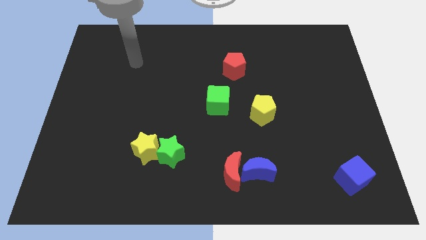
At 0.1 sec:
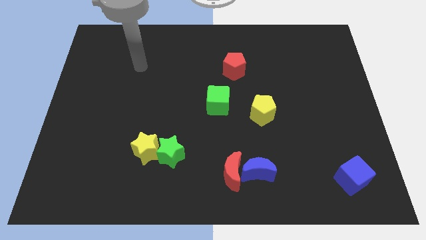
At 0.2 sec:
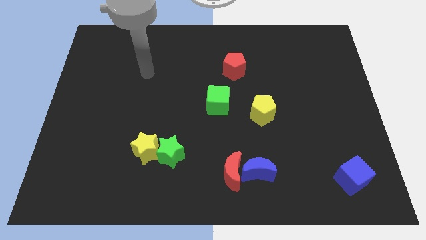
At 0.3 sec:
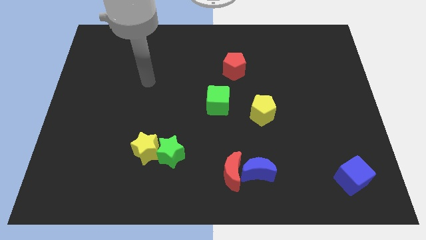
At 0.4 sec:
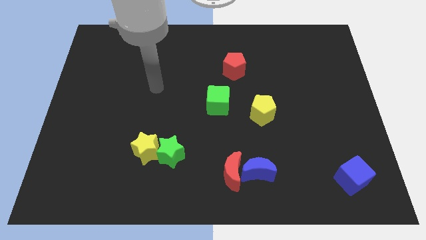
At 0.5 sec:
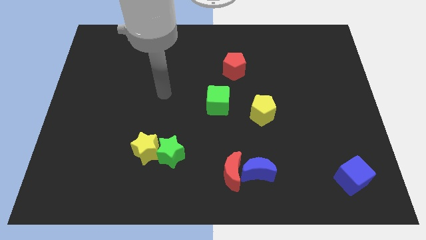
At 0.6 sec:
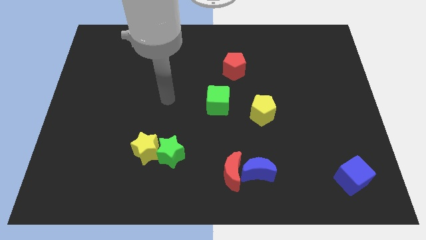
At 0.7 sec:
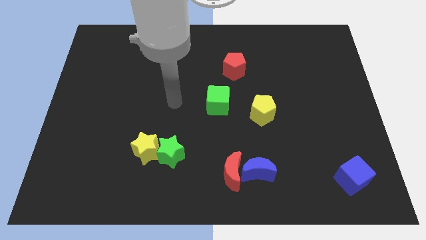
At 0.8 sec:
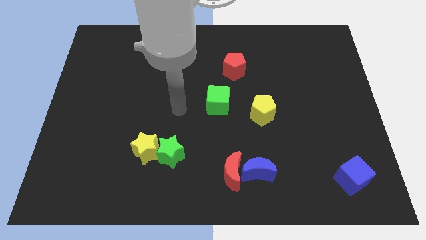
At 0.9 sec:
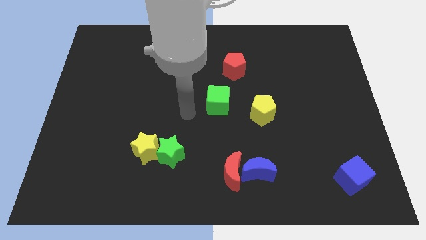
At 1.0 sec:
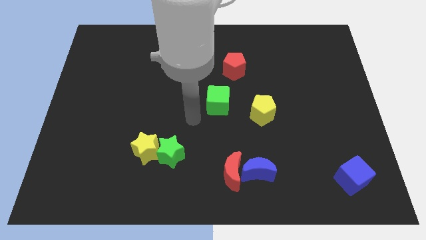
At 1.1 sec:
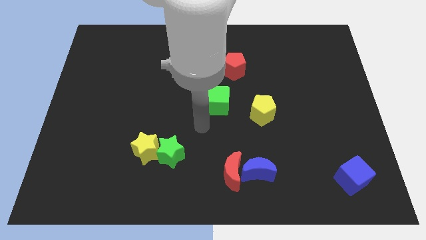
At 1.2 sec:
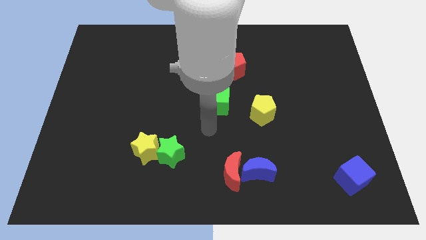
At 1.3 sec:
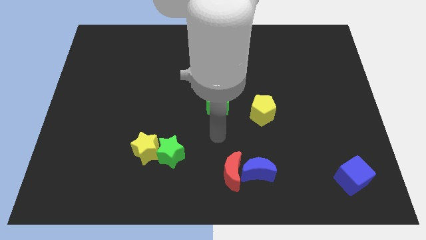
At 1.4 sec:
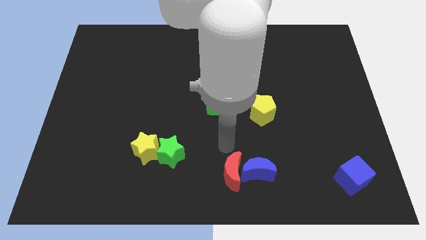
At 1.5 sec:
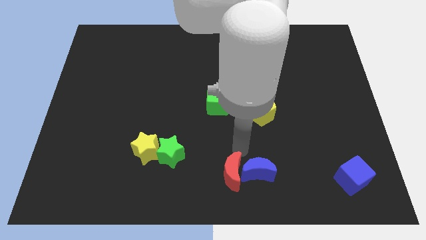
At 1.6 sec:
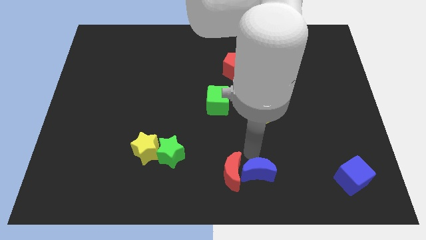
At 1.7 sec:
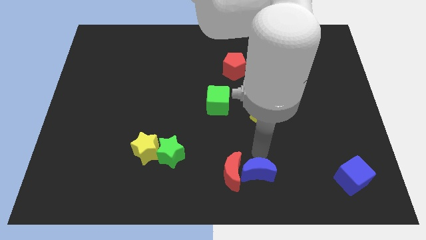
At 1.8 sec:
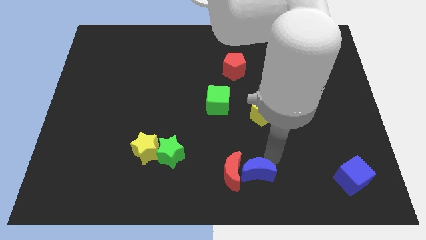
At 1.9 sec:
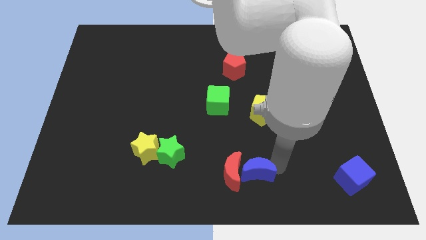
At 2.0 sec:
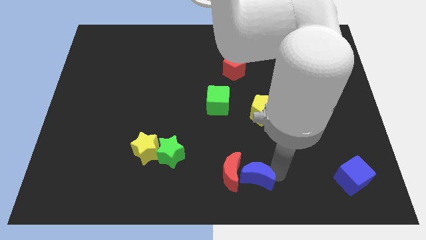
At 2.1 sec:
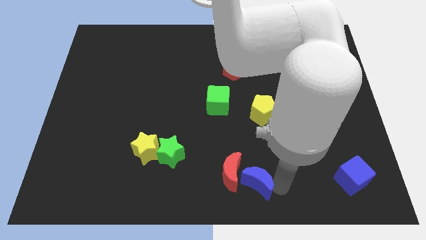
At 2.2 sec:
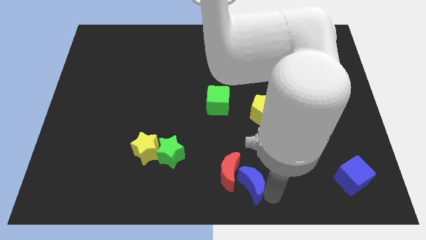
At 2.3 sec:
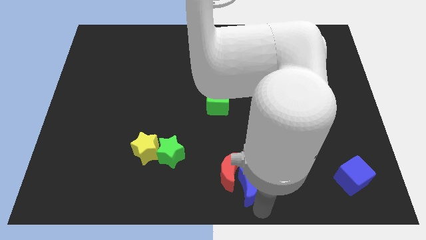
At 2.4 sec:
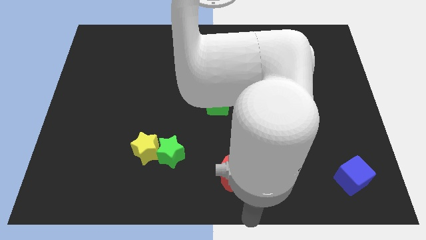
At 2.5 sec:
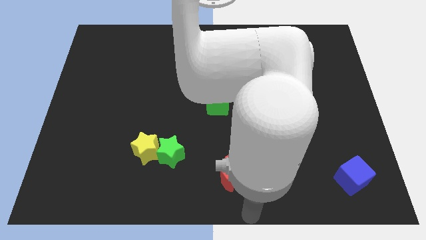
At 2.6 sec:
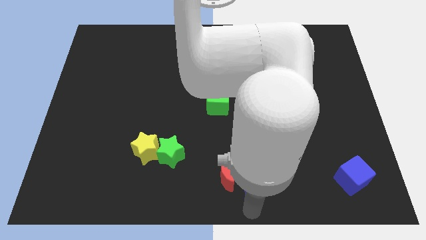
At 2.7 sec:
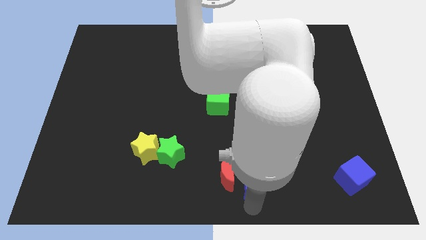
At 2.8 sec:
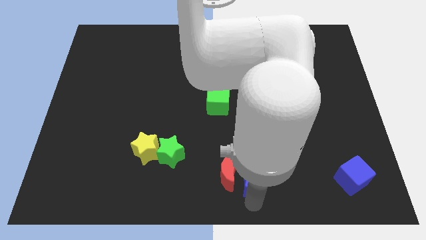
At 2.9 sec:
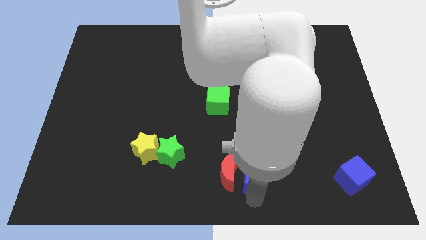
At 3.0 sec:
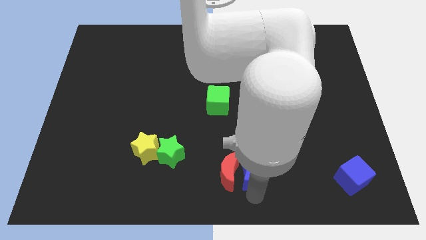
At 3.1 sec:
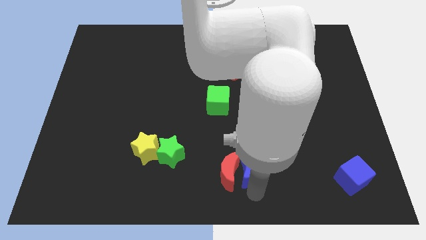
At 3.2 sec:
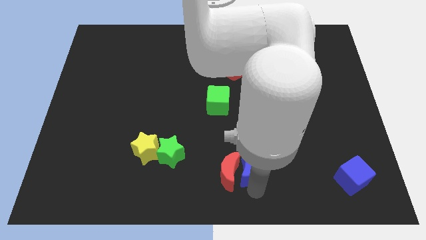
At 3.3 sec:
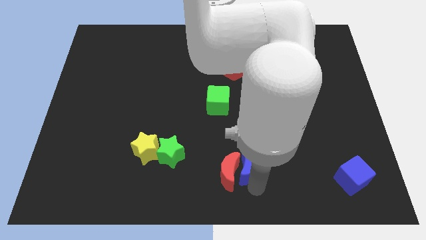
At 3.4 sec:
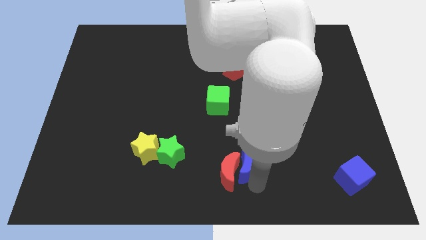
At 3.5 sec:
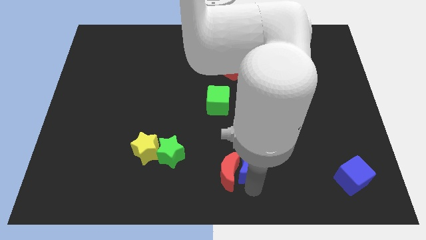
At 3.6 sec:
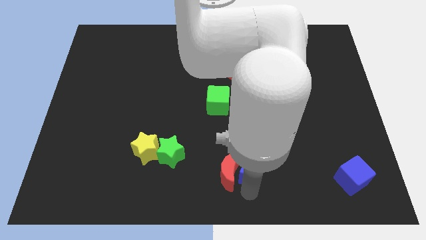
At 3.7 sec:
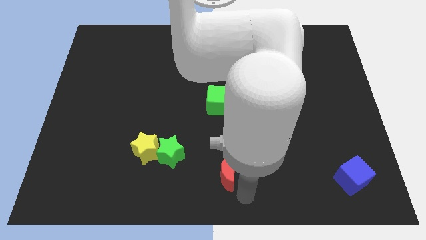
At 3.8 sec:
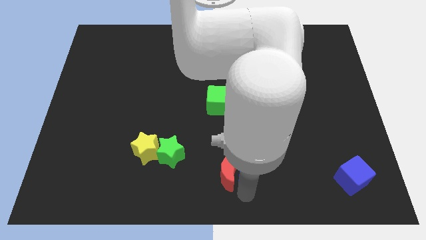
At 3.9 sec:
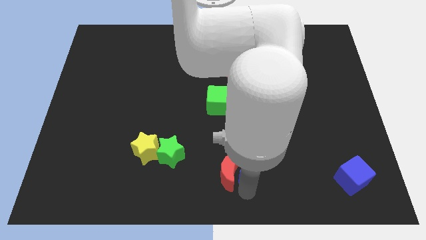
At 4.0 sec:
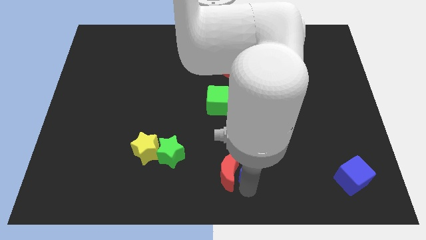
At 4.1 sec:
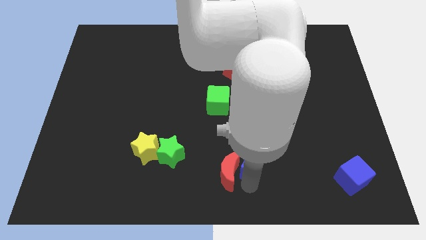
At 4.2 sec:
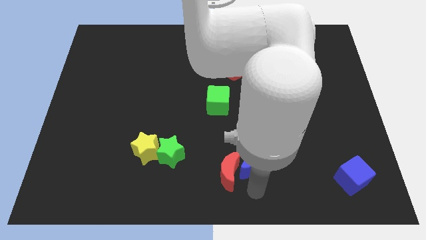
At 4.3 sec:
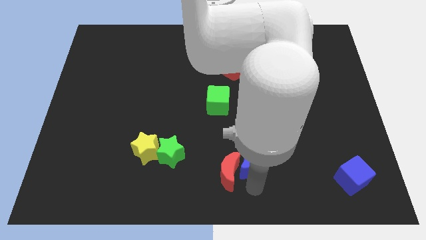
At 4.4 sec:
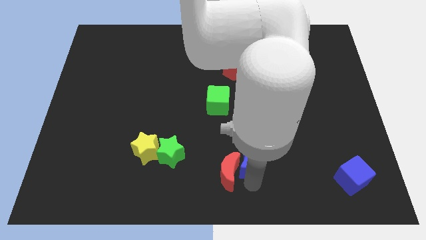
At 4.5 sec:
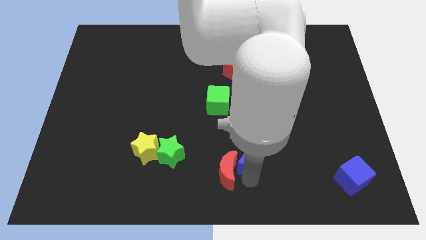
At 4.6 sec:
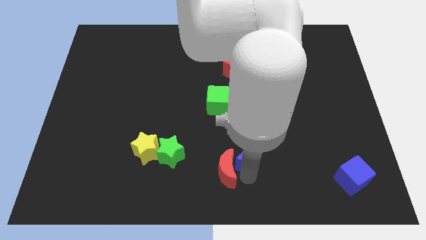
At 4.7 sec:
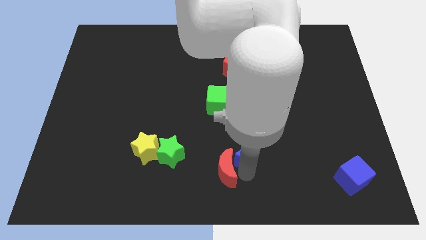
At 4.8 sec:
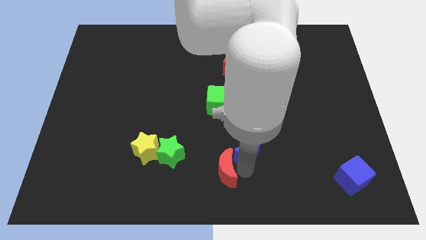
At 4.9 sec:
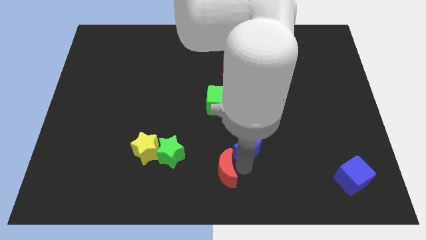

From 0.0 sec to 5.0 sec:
slide the blue moon diagonally down and to the left of the yellow pentagon

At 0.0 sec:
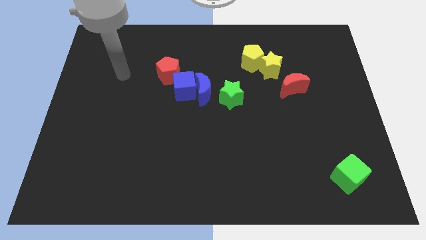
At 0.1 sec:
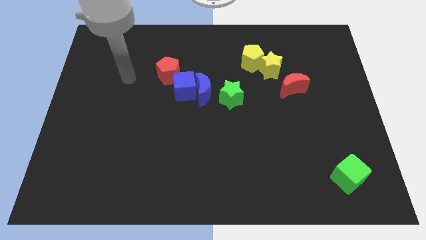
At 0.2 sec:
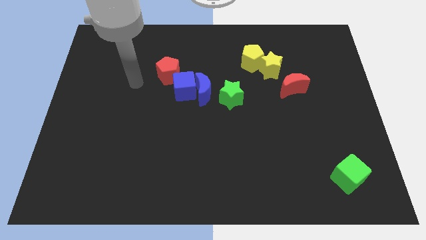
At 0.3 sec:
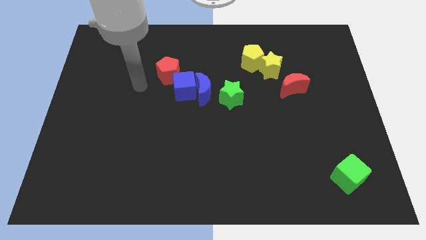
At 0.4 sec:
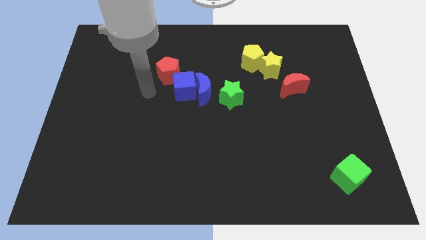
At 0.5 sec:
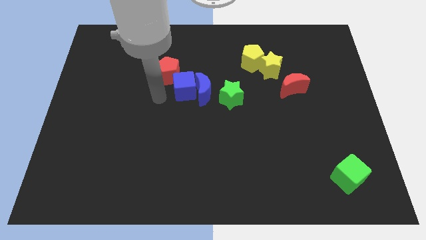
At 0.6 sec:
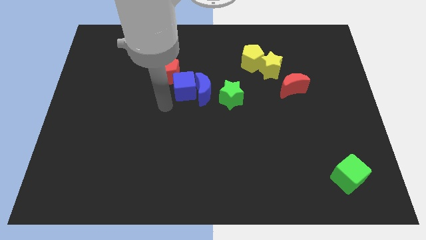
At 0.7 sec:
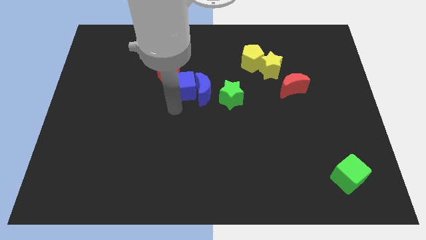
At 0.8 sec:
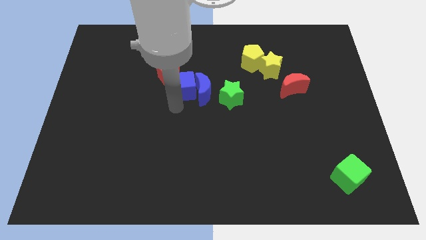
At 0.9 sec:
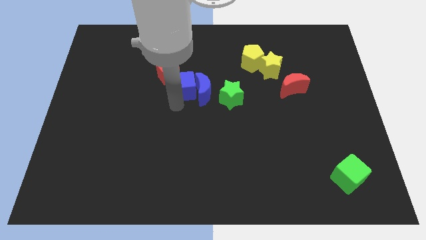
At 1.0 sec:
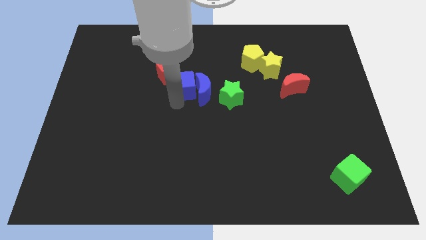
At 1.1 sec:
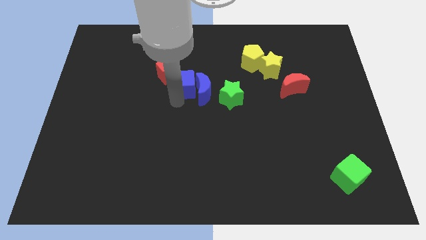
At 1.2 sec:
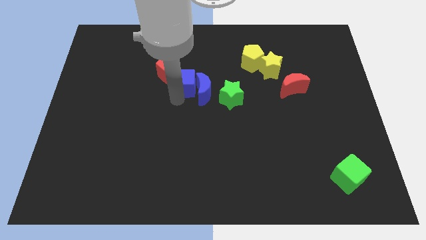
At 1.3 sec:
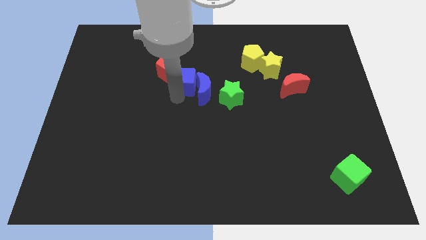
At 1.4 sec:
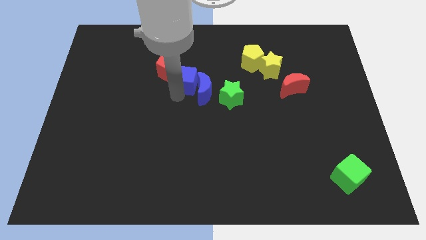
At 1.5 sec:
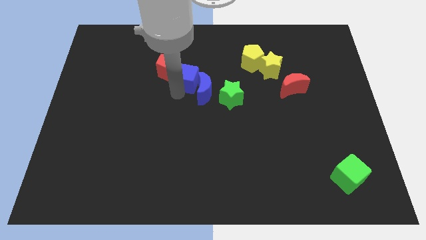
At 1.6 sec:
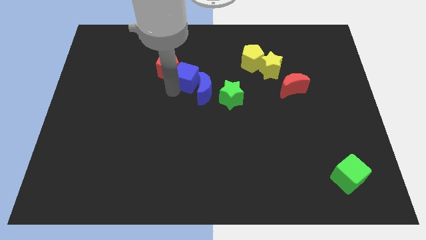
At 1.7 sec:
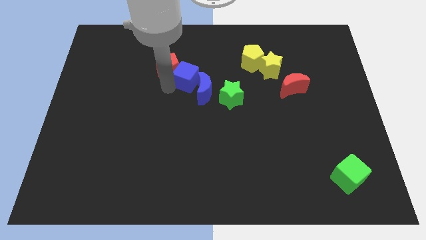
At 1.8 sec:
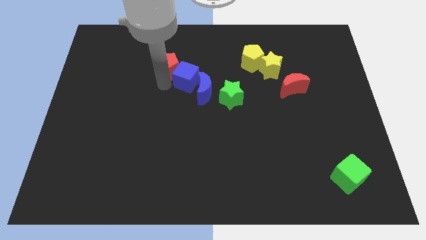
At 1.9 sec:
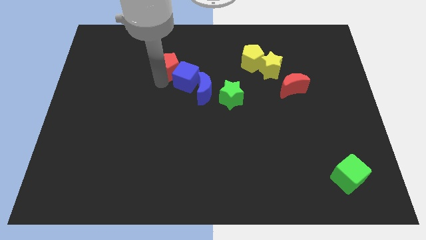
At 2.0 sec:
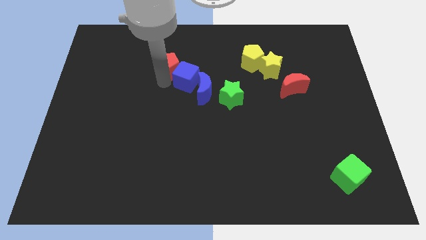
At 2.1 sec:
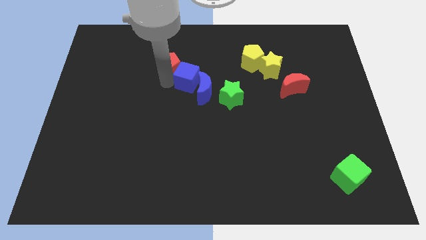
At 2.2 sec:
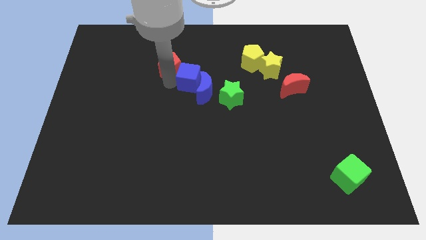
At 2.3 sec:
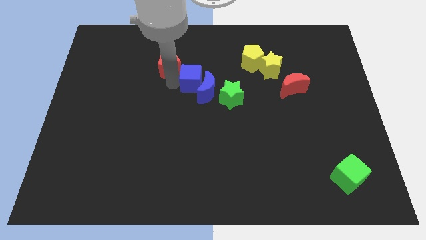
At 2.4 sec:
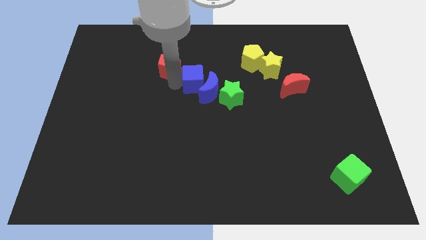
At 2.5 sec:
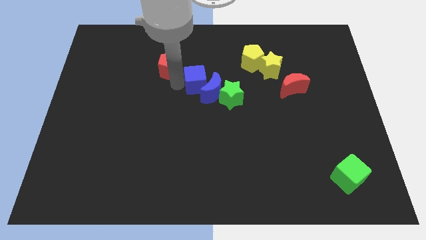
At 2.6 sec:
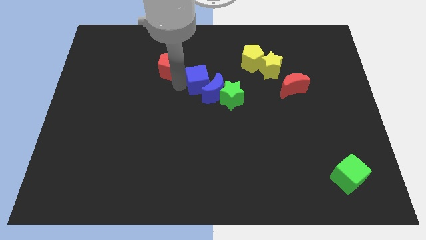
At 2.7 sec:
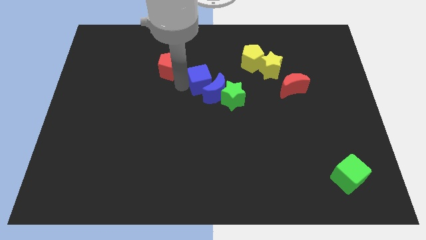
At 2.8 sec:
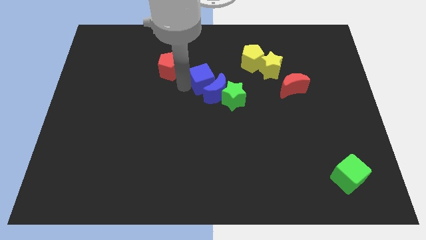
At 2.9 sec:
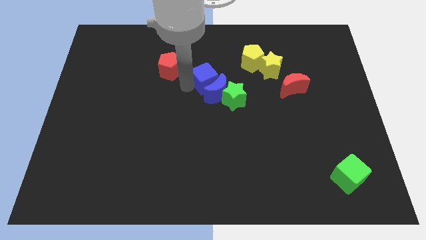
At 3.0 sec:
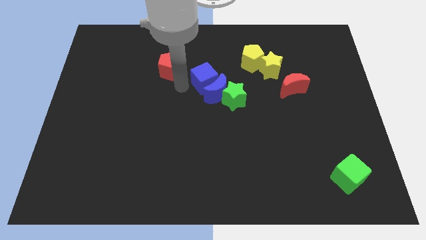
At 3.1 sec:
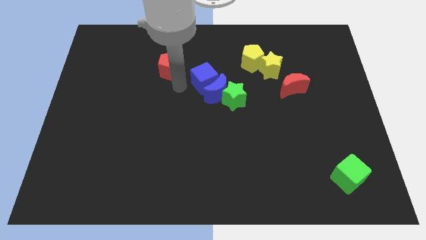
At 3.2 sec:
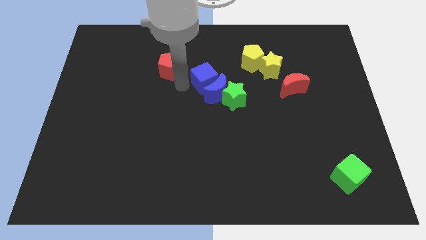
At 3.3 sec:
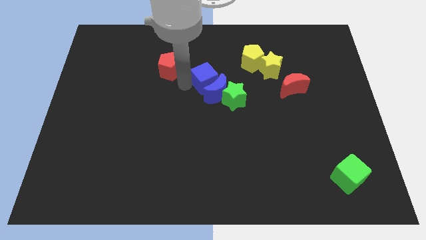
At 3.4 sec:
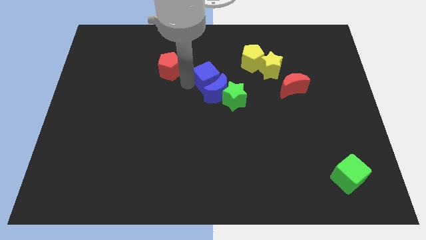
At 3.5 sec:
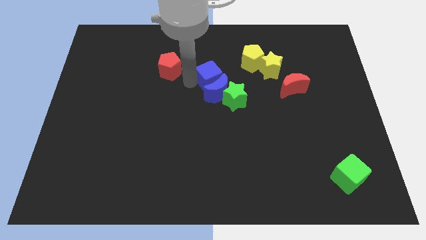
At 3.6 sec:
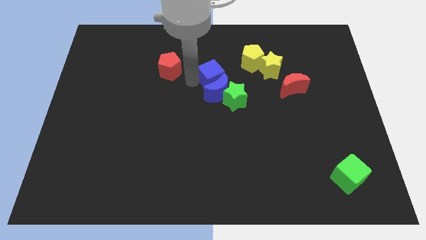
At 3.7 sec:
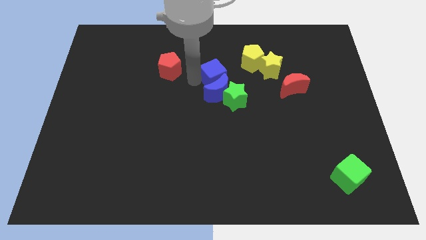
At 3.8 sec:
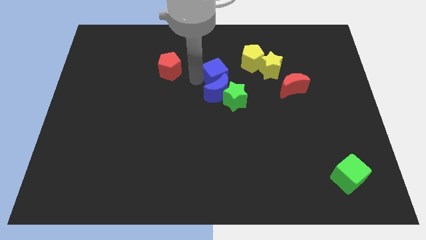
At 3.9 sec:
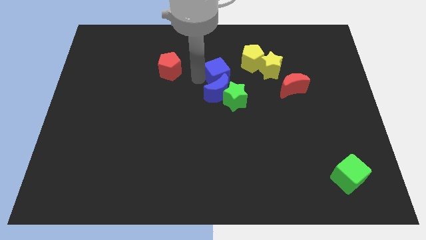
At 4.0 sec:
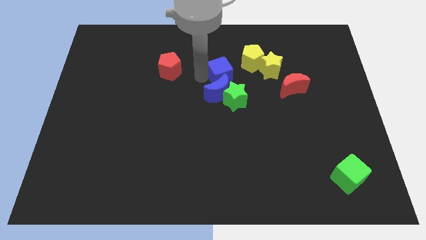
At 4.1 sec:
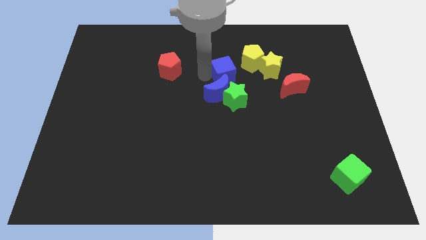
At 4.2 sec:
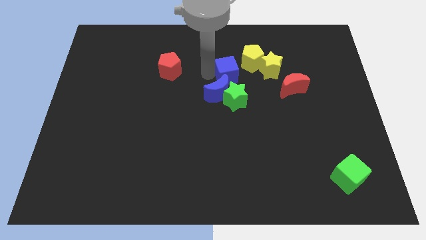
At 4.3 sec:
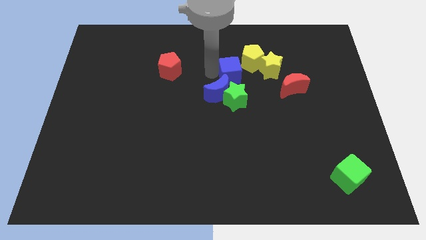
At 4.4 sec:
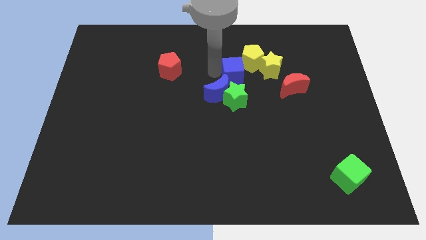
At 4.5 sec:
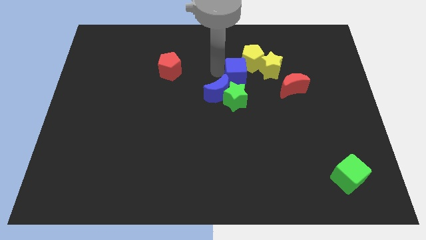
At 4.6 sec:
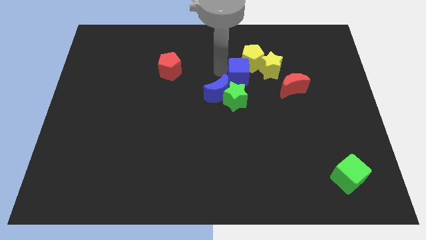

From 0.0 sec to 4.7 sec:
move the blue cube diagonally up and to the right of the green star
